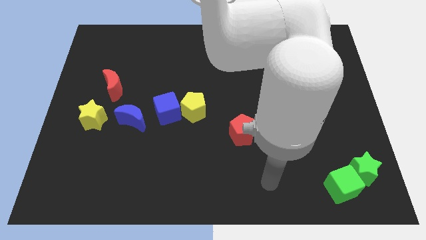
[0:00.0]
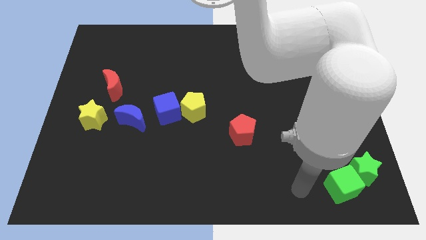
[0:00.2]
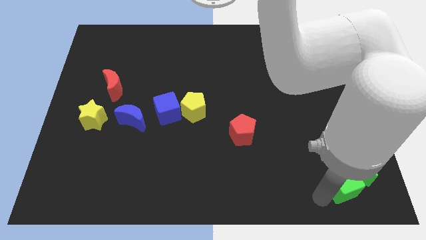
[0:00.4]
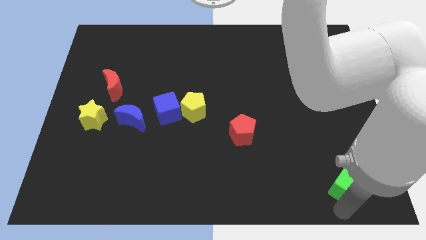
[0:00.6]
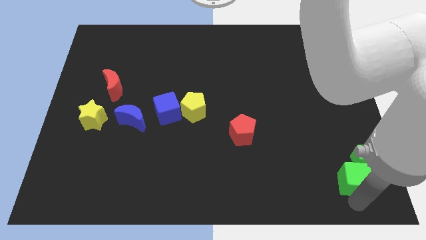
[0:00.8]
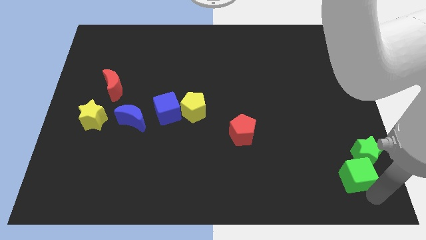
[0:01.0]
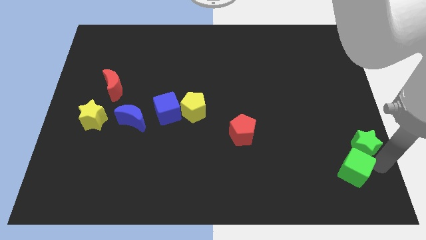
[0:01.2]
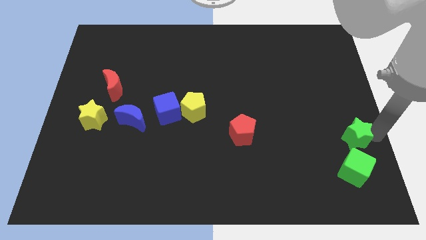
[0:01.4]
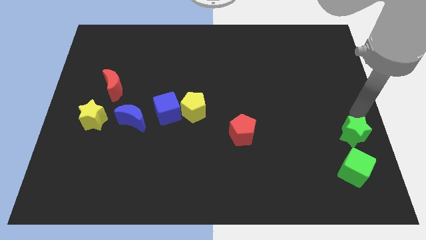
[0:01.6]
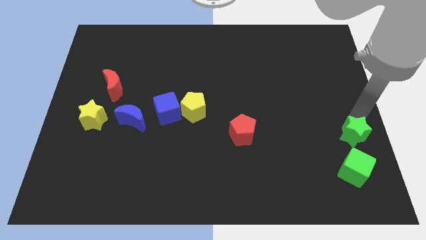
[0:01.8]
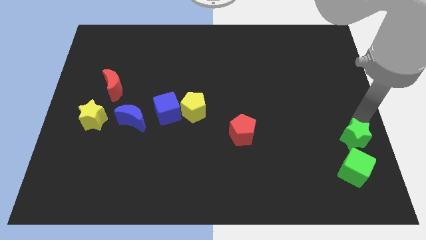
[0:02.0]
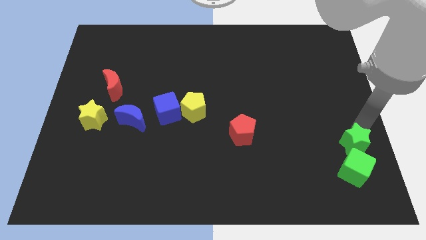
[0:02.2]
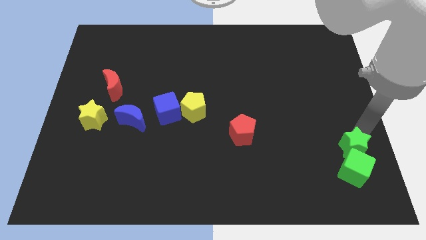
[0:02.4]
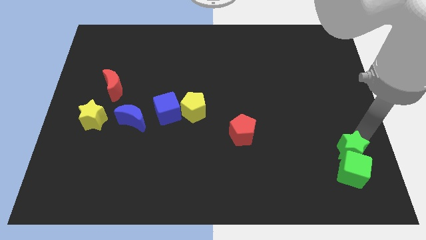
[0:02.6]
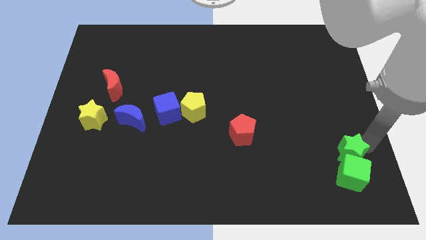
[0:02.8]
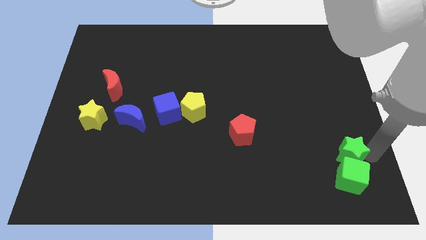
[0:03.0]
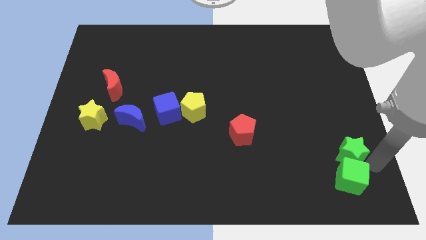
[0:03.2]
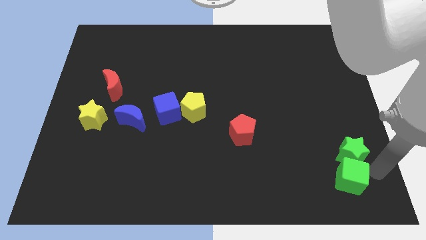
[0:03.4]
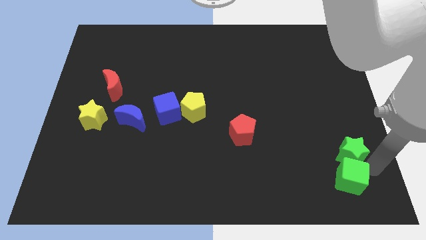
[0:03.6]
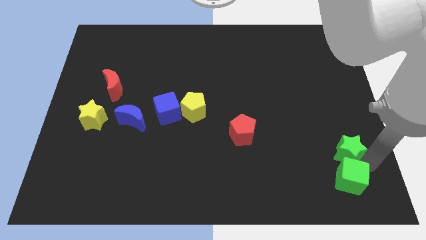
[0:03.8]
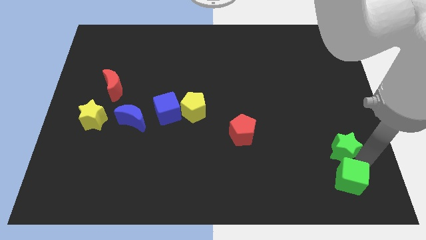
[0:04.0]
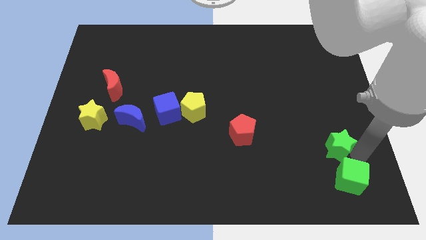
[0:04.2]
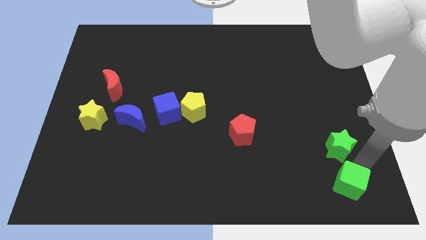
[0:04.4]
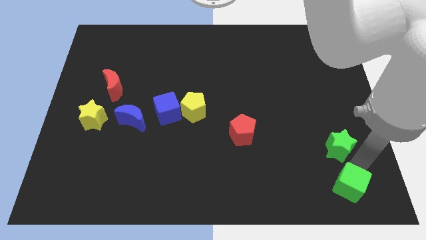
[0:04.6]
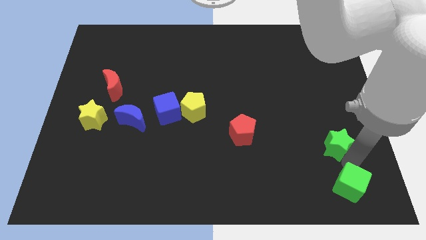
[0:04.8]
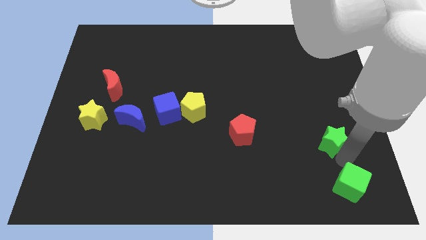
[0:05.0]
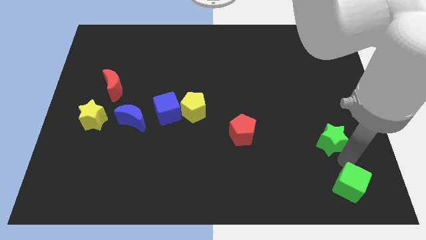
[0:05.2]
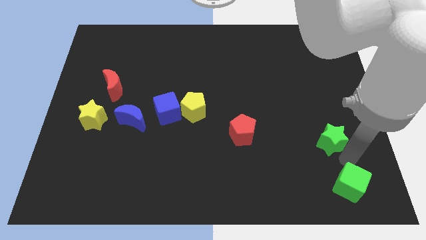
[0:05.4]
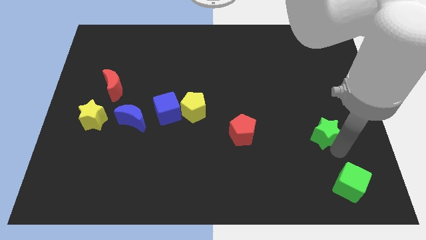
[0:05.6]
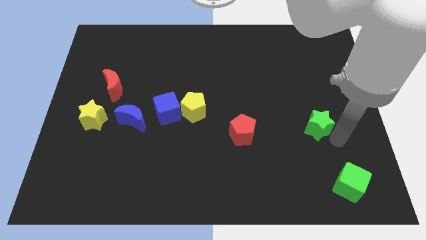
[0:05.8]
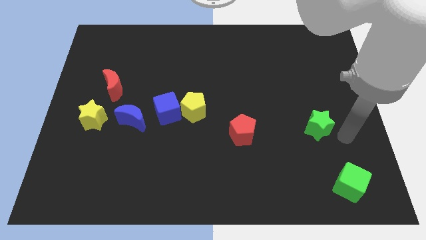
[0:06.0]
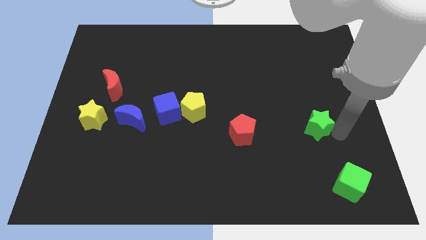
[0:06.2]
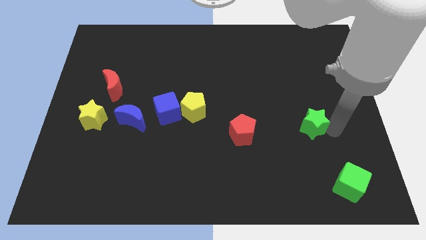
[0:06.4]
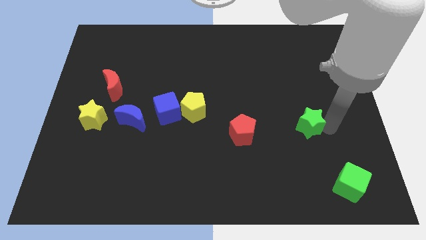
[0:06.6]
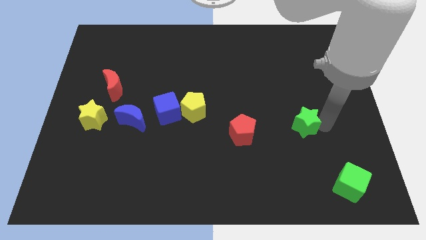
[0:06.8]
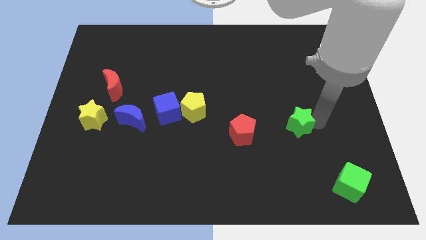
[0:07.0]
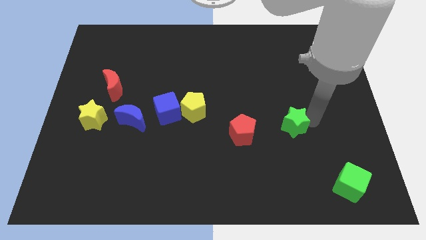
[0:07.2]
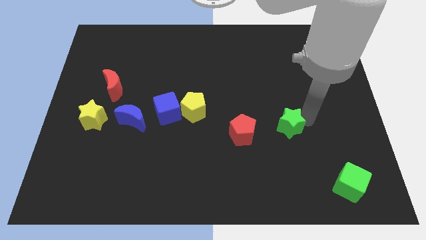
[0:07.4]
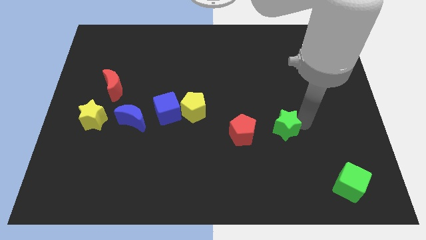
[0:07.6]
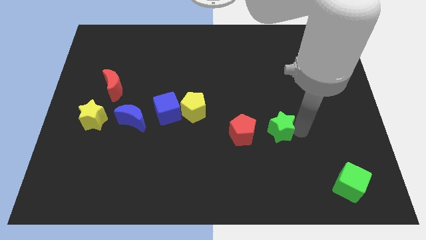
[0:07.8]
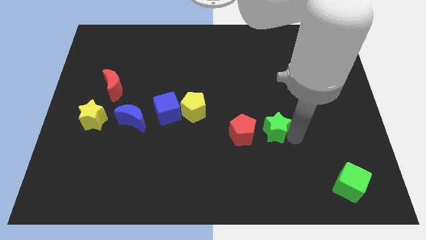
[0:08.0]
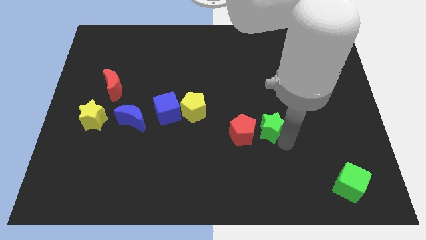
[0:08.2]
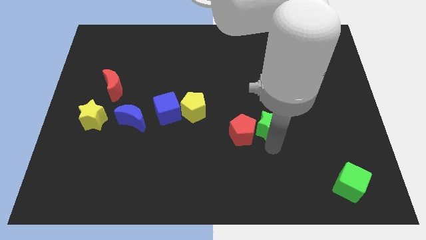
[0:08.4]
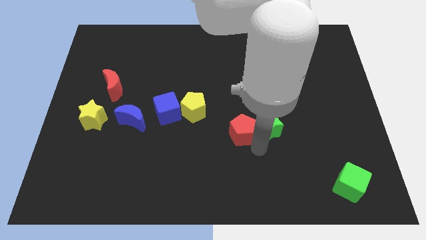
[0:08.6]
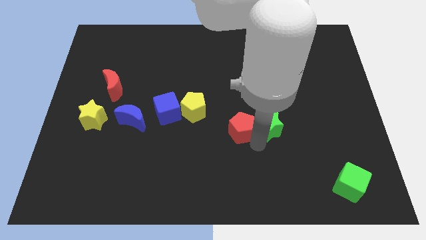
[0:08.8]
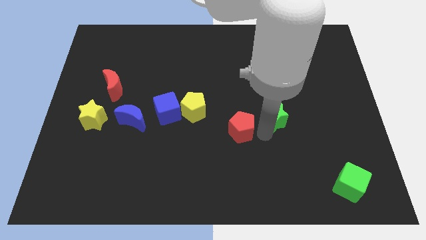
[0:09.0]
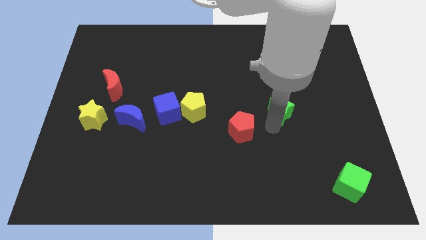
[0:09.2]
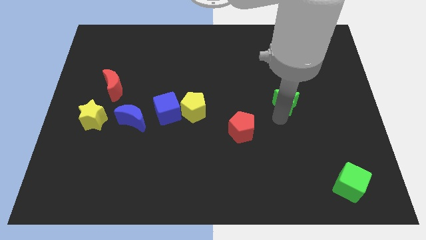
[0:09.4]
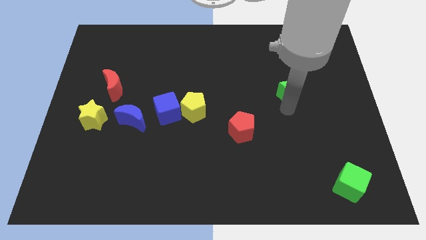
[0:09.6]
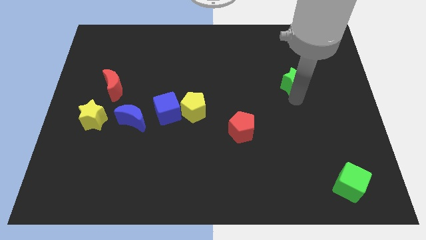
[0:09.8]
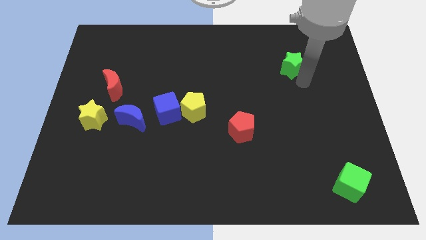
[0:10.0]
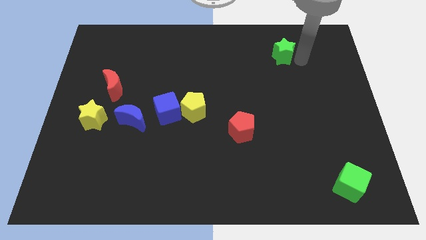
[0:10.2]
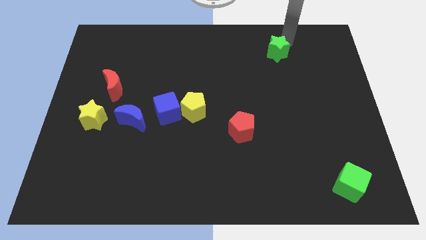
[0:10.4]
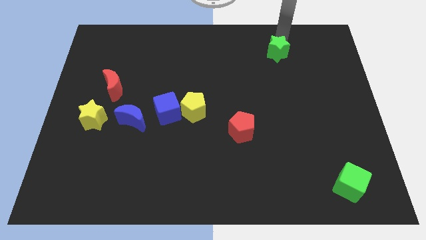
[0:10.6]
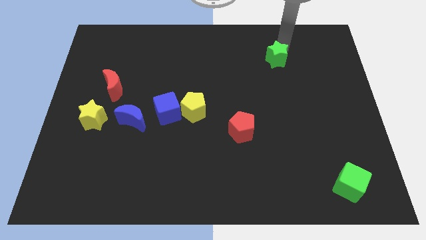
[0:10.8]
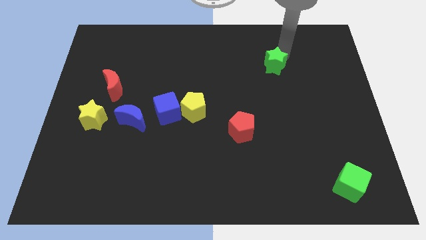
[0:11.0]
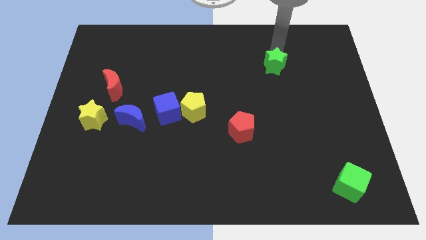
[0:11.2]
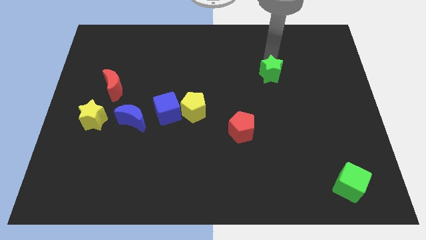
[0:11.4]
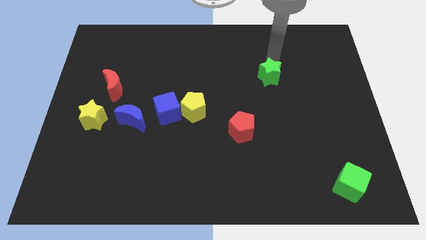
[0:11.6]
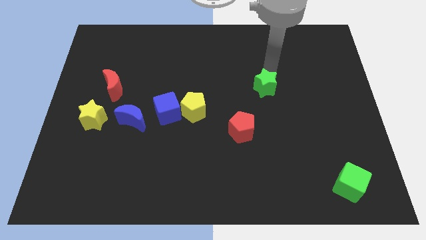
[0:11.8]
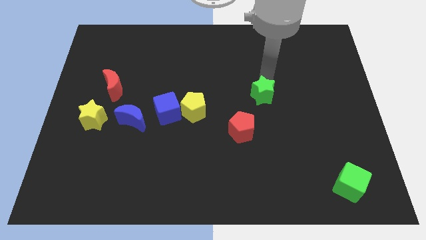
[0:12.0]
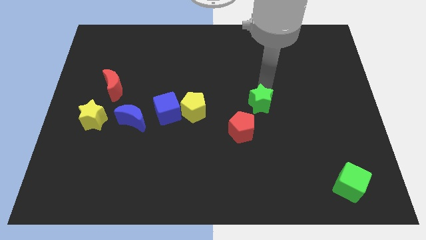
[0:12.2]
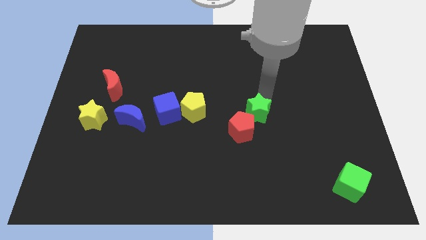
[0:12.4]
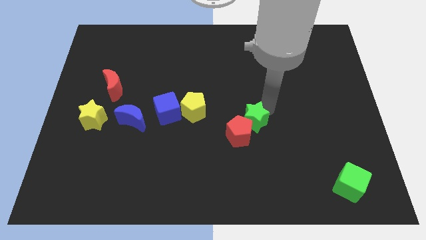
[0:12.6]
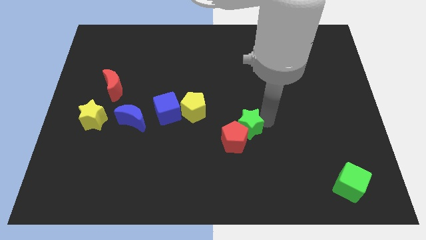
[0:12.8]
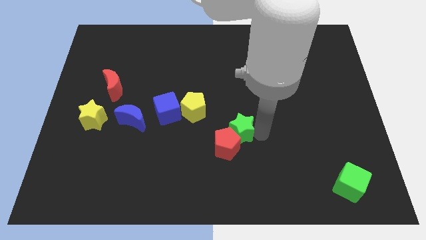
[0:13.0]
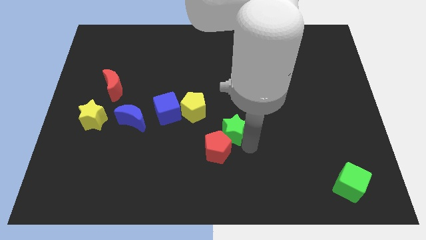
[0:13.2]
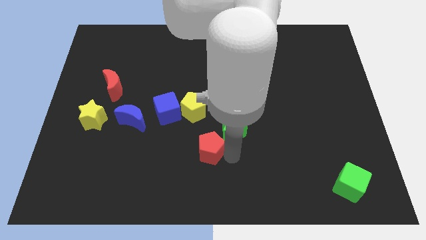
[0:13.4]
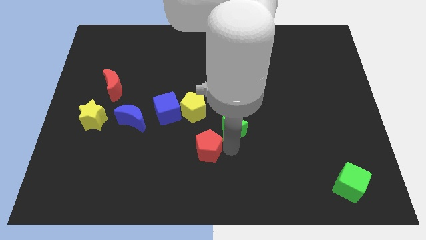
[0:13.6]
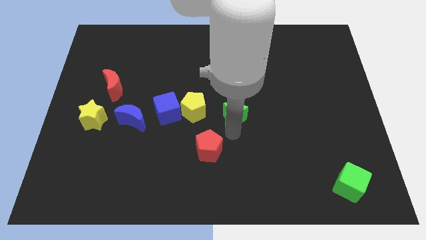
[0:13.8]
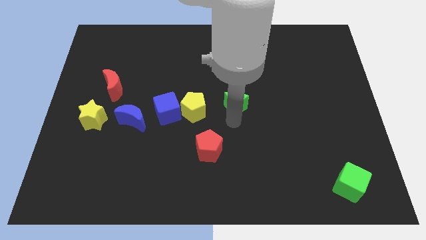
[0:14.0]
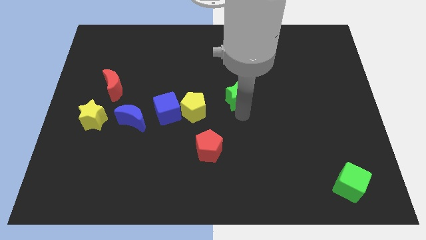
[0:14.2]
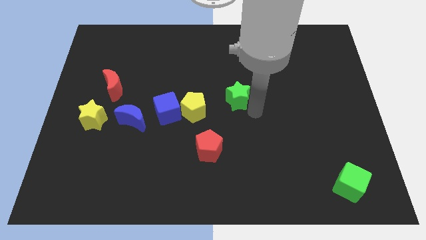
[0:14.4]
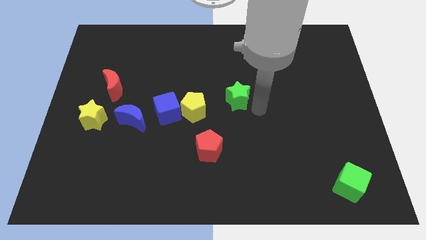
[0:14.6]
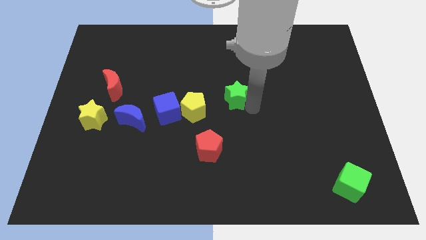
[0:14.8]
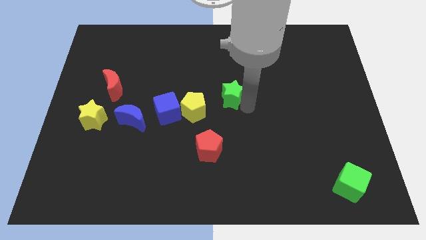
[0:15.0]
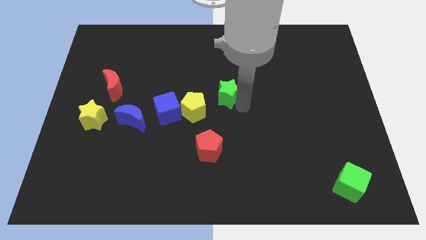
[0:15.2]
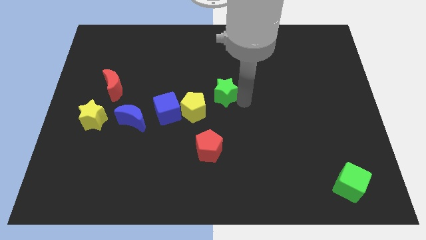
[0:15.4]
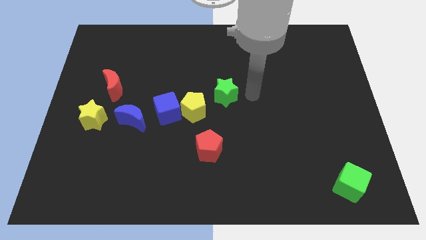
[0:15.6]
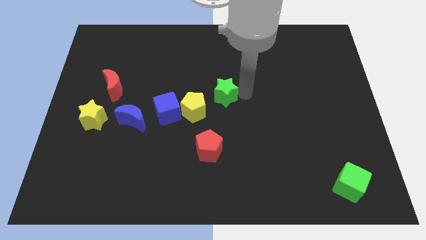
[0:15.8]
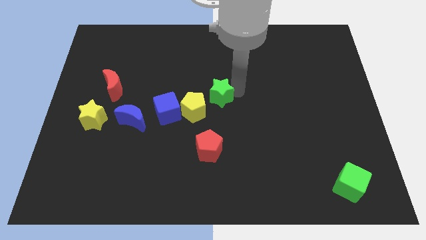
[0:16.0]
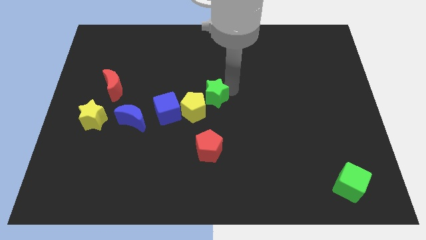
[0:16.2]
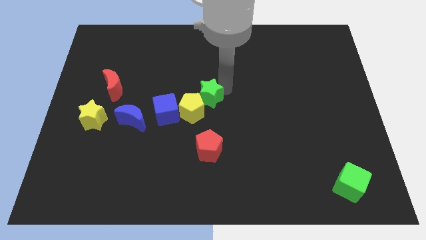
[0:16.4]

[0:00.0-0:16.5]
slide the green star to the top right side of the blue cube
